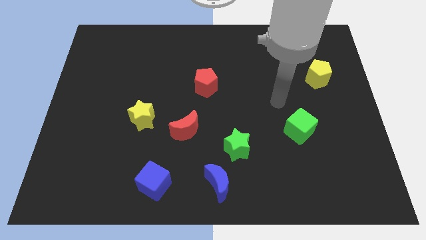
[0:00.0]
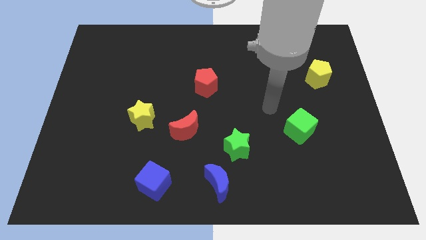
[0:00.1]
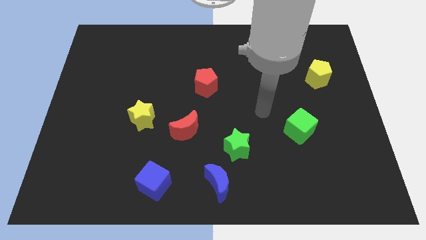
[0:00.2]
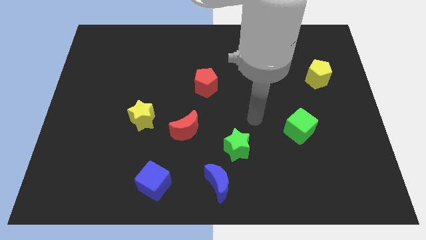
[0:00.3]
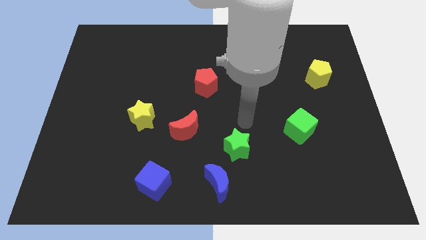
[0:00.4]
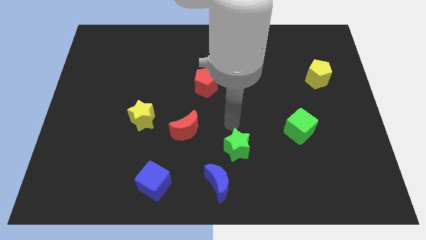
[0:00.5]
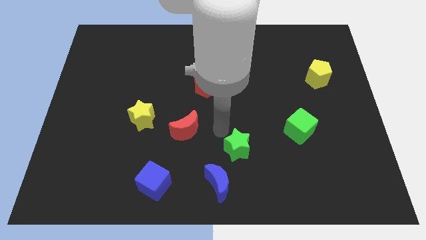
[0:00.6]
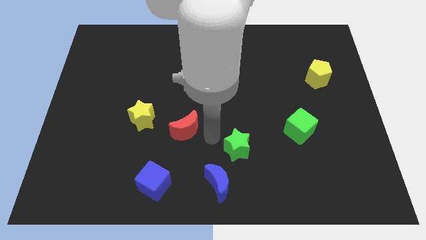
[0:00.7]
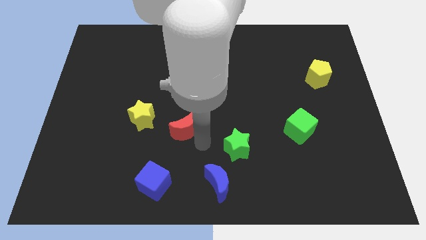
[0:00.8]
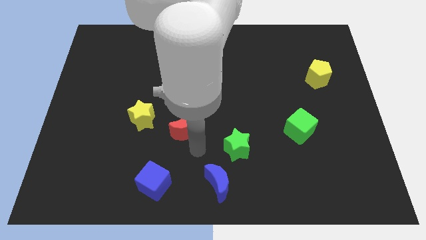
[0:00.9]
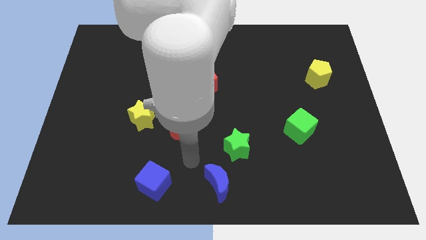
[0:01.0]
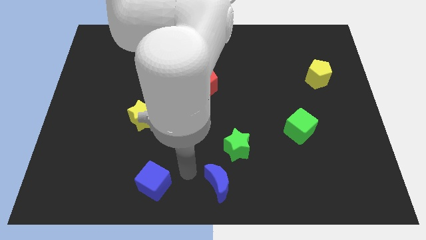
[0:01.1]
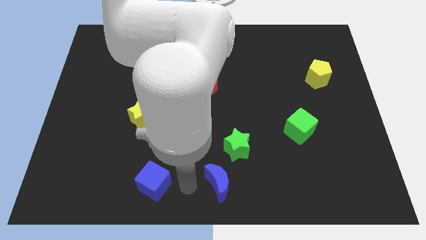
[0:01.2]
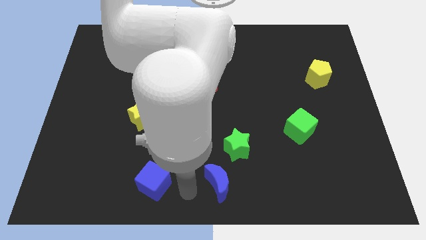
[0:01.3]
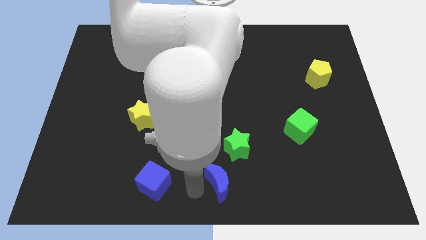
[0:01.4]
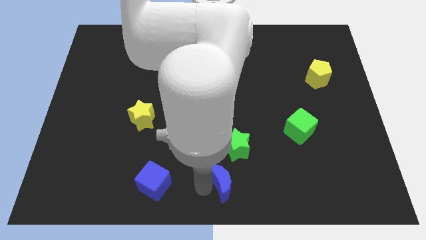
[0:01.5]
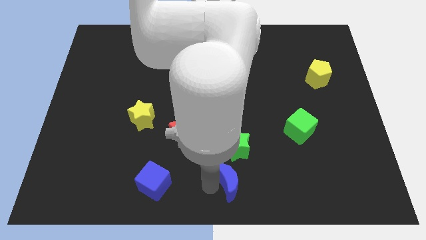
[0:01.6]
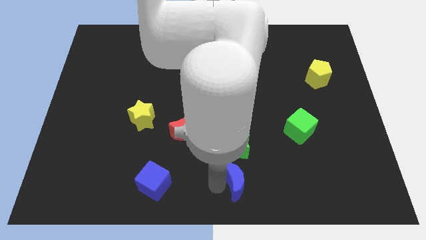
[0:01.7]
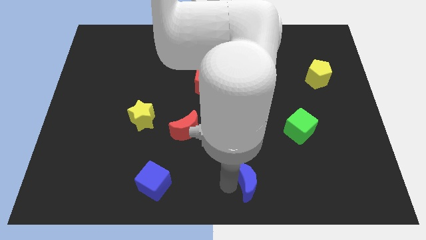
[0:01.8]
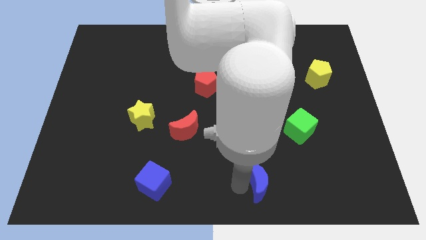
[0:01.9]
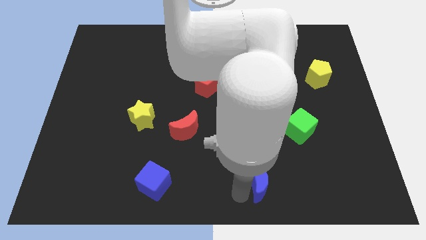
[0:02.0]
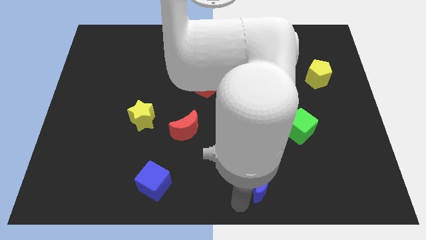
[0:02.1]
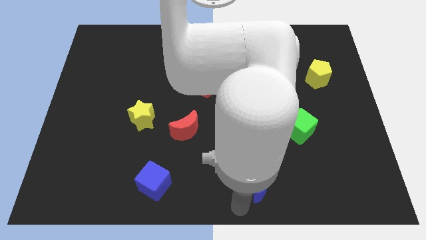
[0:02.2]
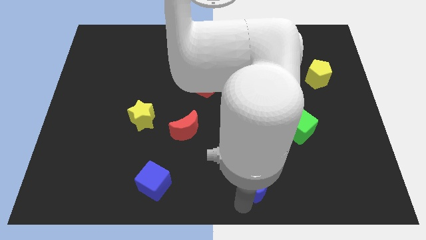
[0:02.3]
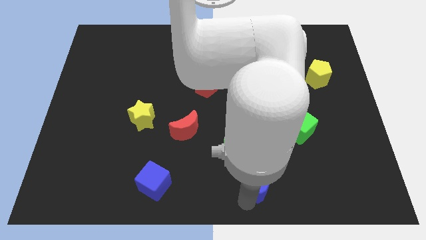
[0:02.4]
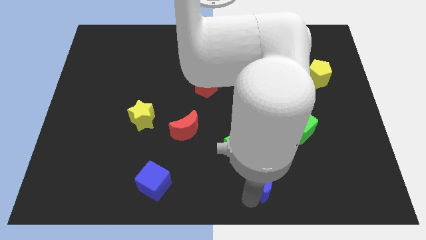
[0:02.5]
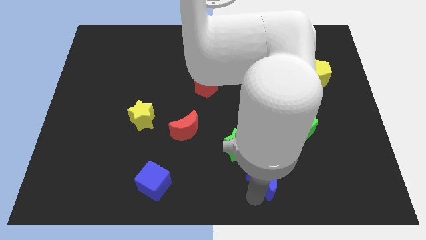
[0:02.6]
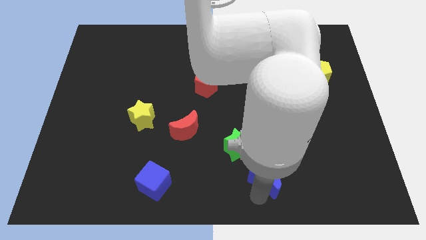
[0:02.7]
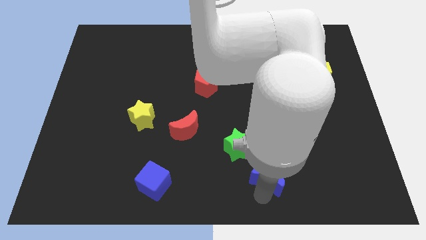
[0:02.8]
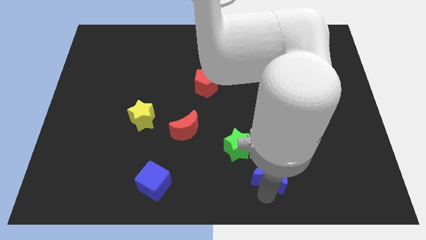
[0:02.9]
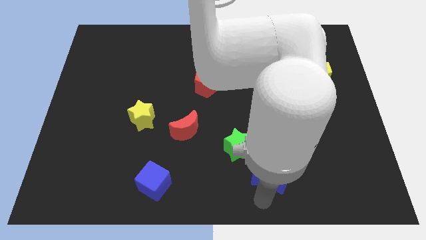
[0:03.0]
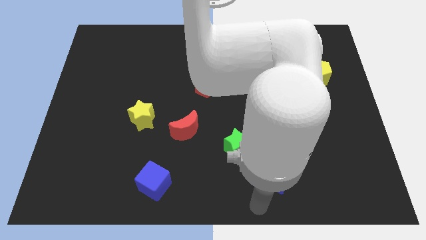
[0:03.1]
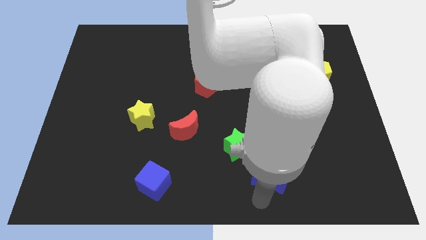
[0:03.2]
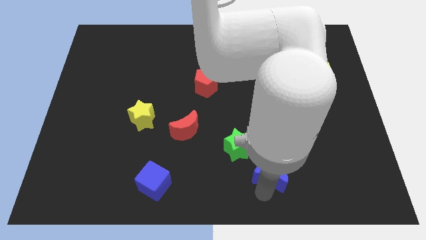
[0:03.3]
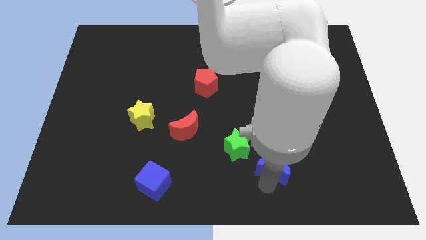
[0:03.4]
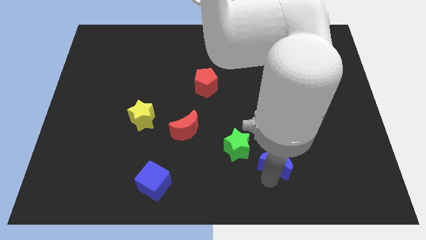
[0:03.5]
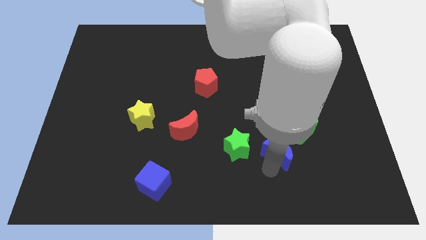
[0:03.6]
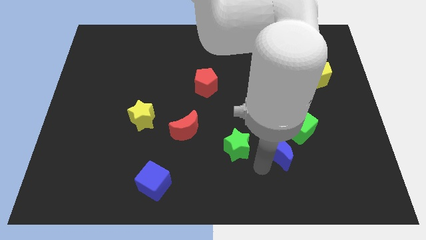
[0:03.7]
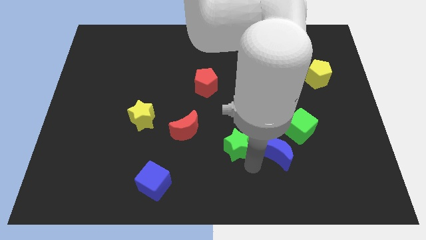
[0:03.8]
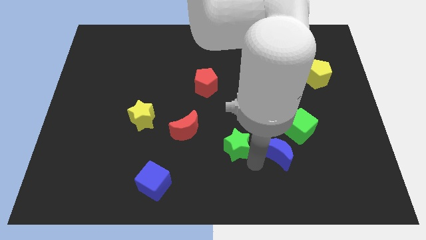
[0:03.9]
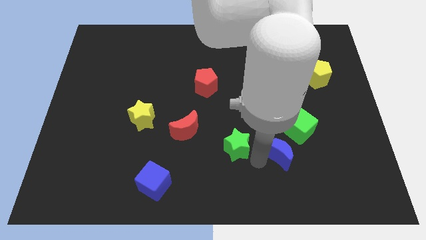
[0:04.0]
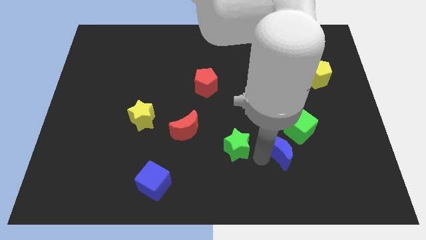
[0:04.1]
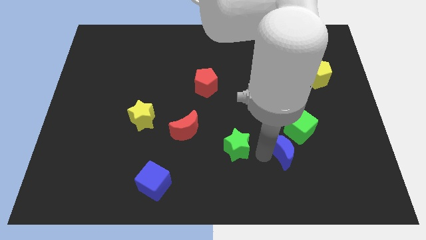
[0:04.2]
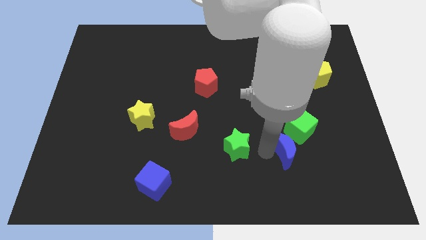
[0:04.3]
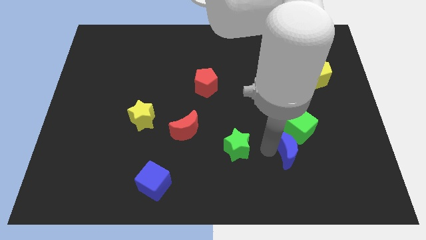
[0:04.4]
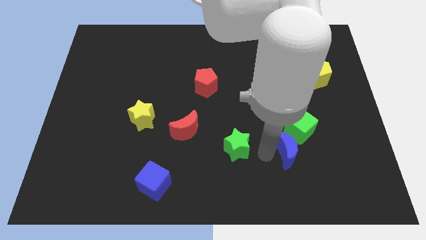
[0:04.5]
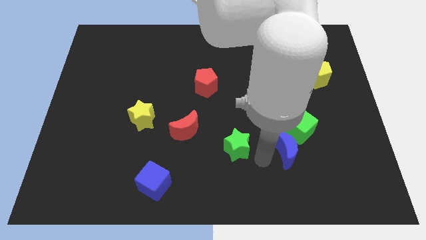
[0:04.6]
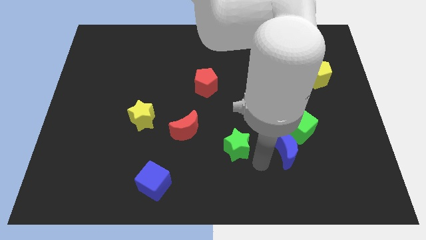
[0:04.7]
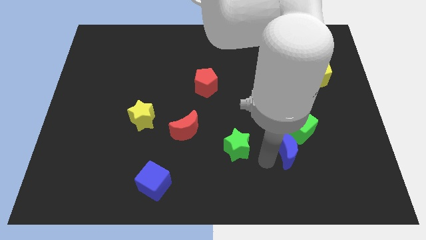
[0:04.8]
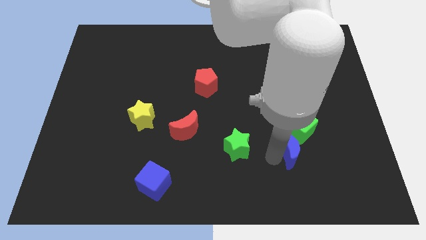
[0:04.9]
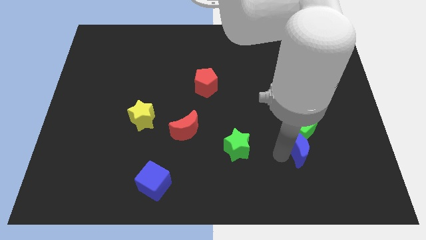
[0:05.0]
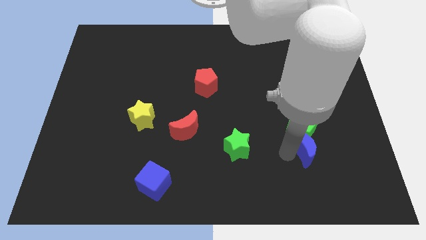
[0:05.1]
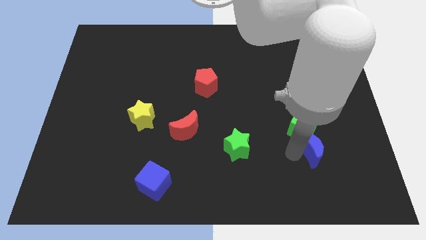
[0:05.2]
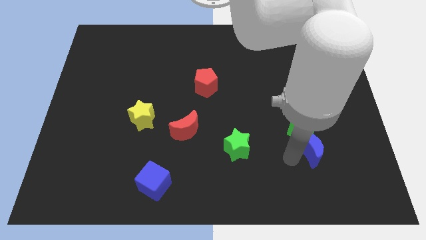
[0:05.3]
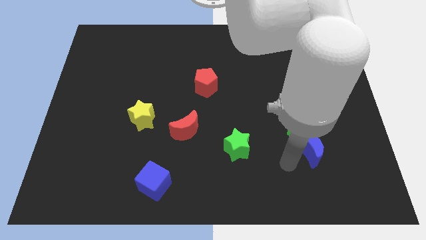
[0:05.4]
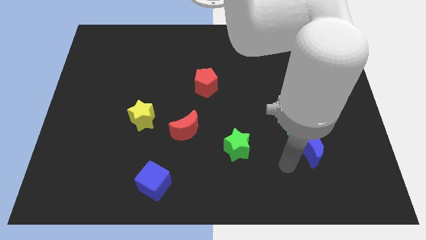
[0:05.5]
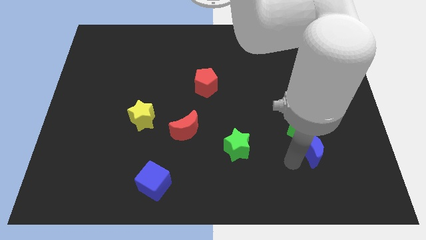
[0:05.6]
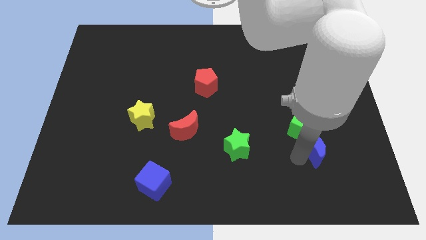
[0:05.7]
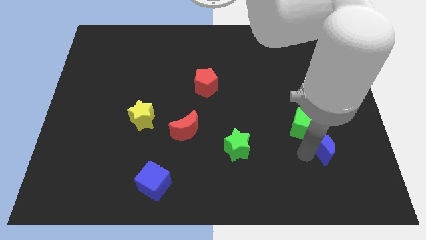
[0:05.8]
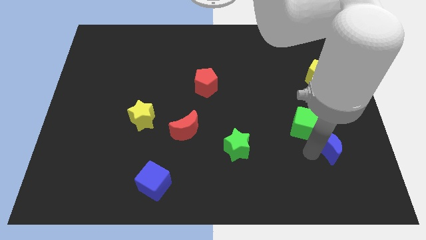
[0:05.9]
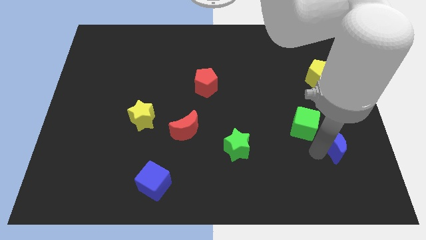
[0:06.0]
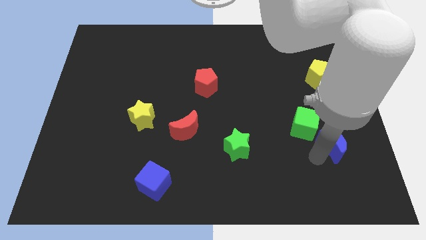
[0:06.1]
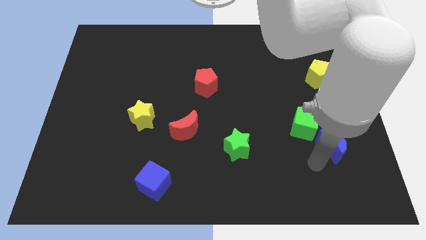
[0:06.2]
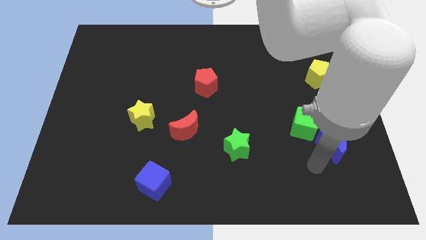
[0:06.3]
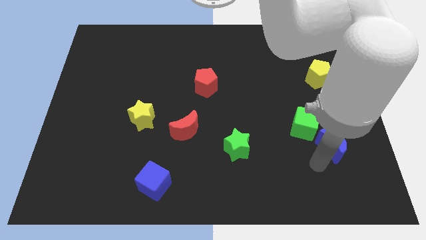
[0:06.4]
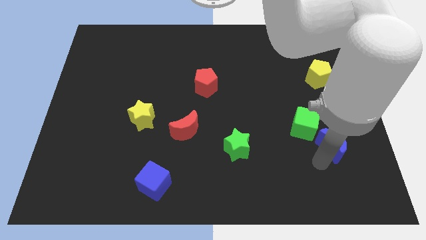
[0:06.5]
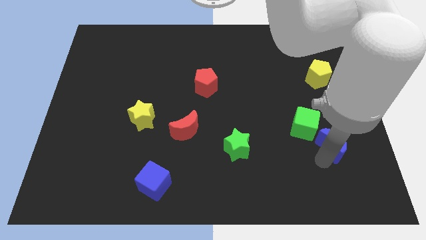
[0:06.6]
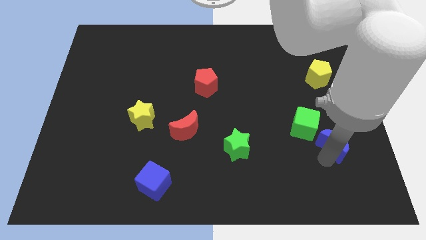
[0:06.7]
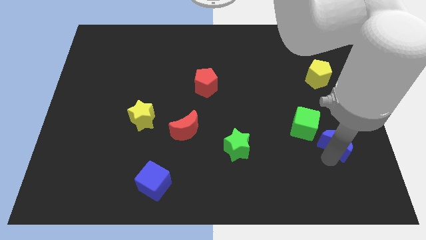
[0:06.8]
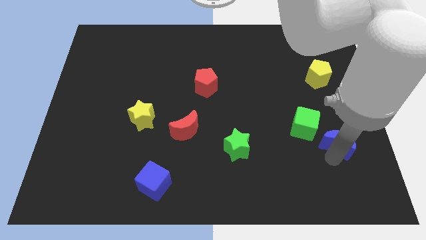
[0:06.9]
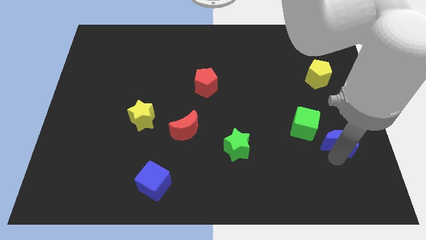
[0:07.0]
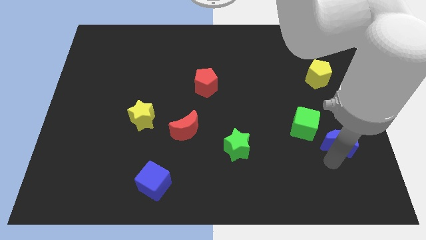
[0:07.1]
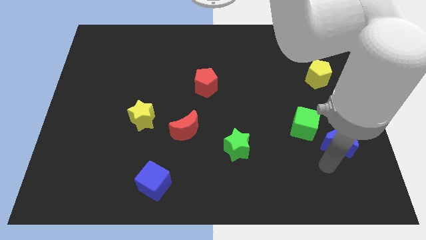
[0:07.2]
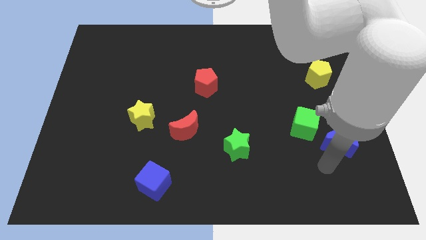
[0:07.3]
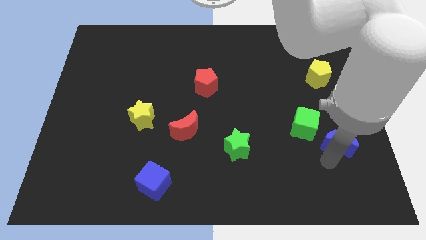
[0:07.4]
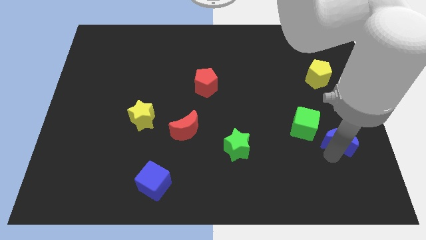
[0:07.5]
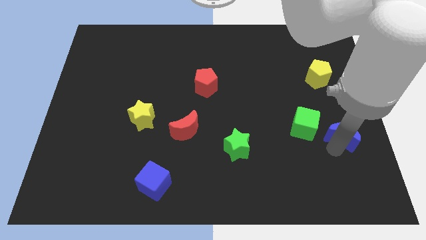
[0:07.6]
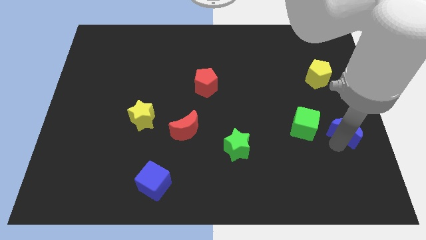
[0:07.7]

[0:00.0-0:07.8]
push the blue moon to the center right
